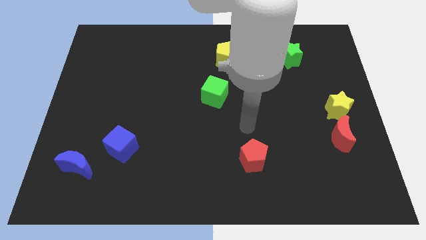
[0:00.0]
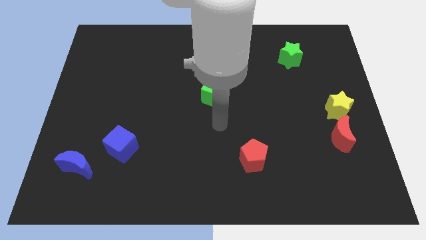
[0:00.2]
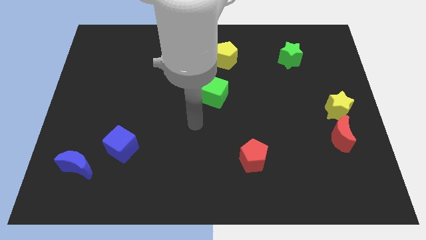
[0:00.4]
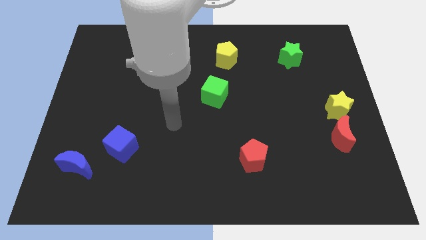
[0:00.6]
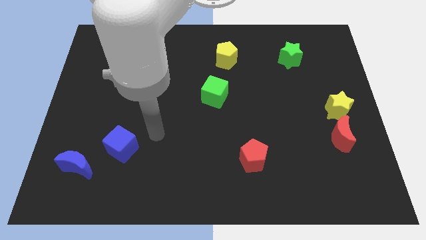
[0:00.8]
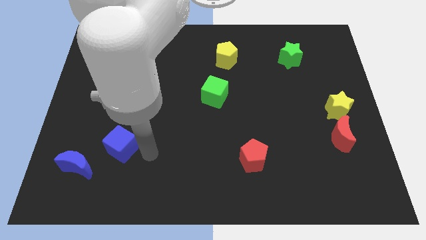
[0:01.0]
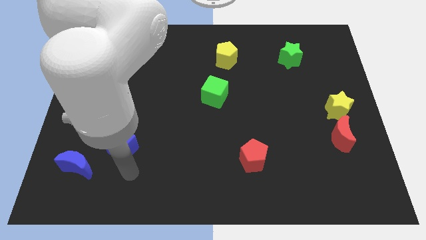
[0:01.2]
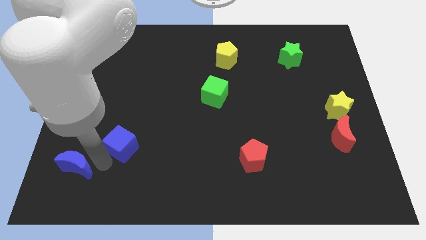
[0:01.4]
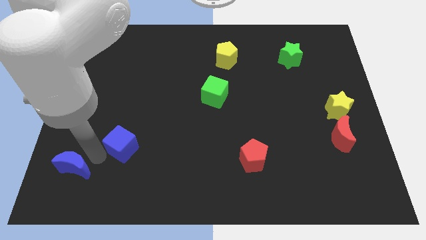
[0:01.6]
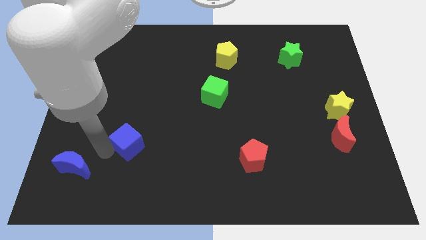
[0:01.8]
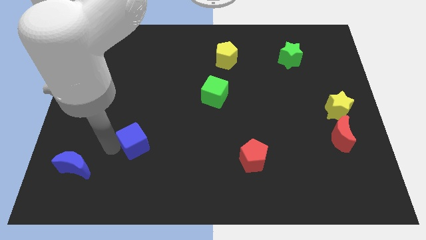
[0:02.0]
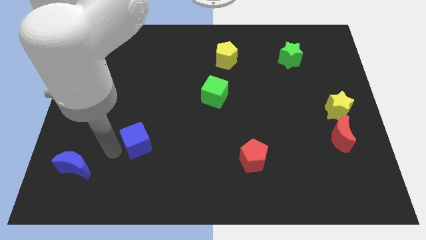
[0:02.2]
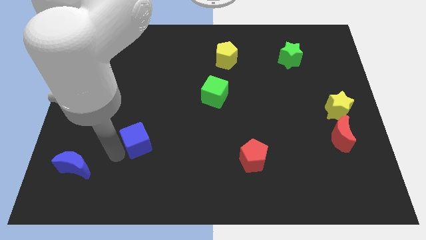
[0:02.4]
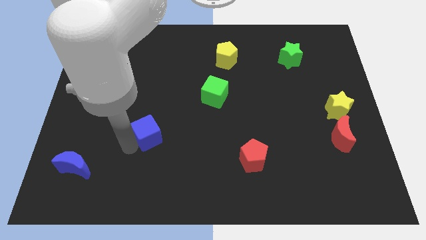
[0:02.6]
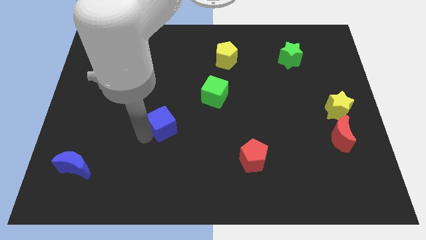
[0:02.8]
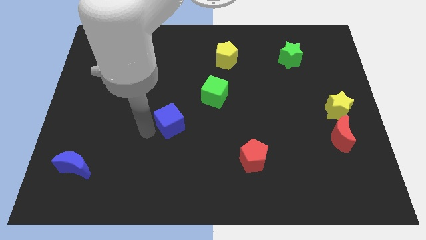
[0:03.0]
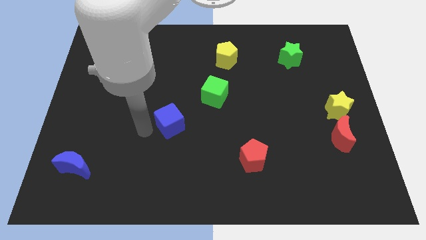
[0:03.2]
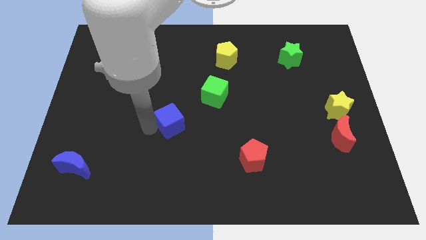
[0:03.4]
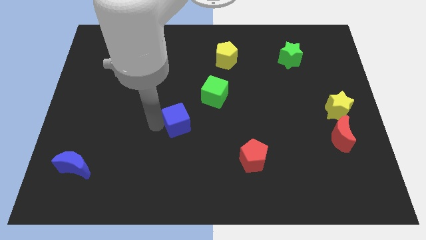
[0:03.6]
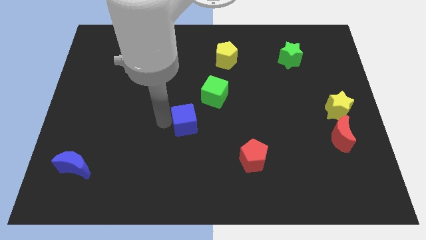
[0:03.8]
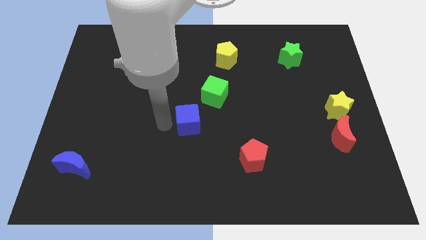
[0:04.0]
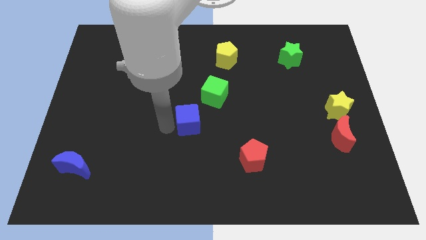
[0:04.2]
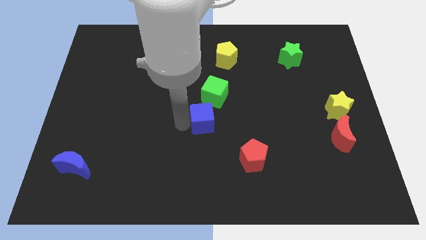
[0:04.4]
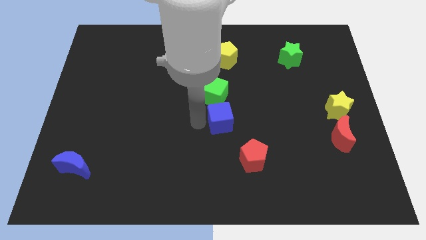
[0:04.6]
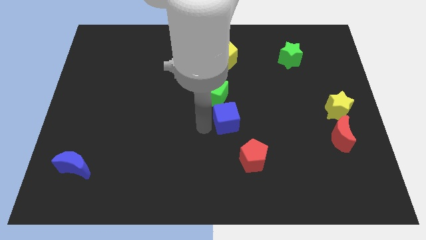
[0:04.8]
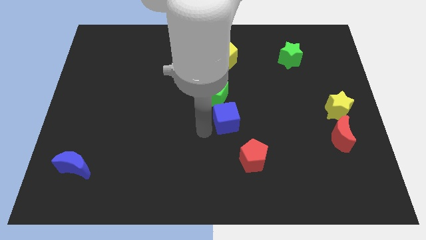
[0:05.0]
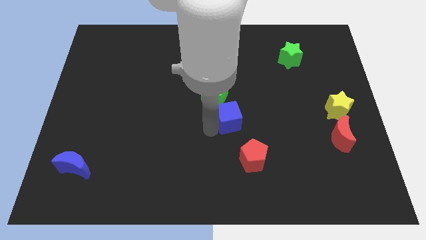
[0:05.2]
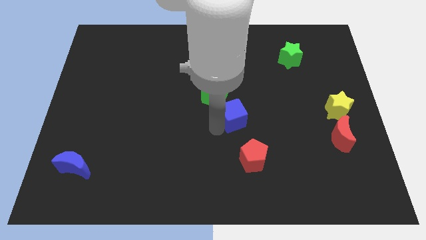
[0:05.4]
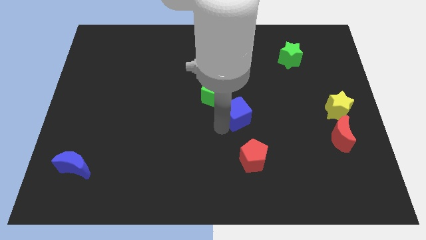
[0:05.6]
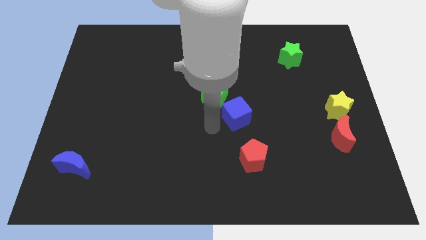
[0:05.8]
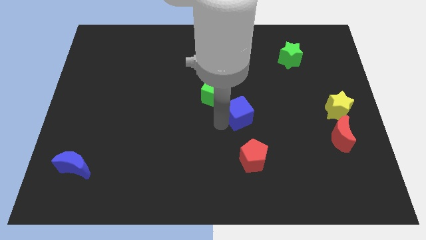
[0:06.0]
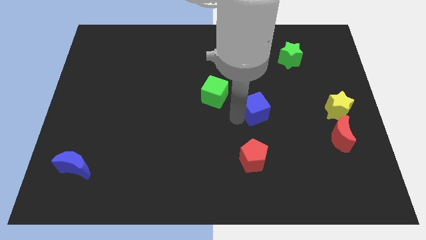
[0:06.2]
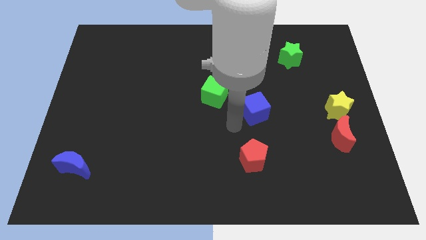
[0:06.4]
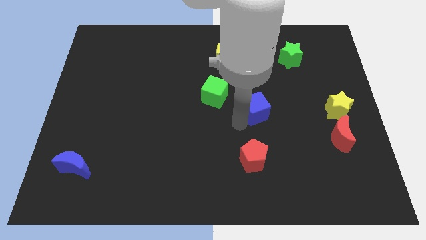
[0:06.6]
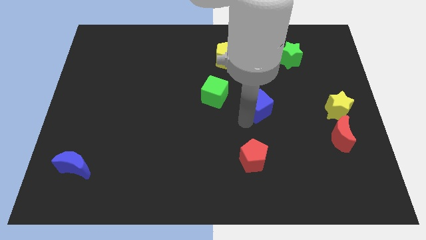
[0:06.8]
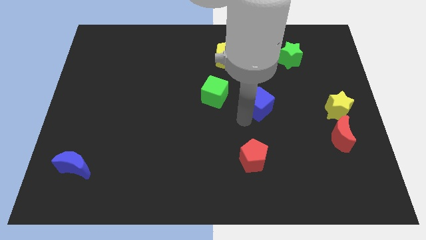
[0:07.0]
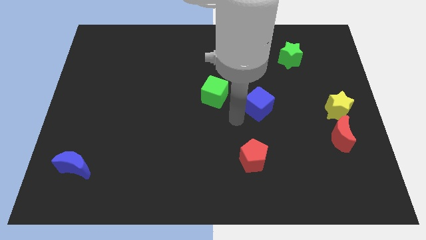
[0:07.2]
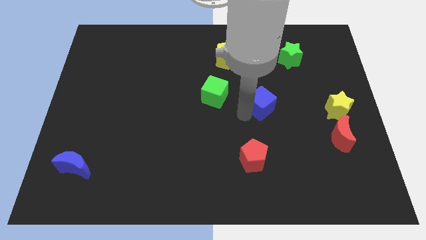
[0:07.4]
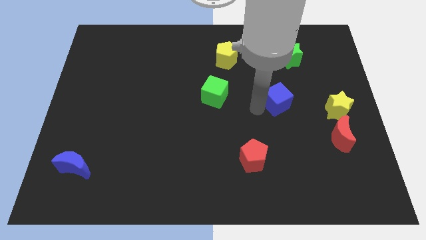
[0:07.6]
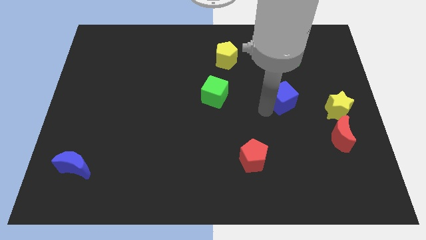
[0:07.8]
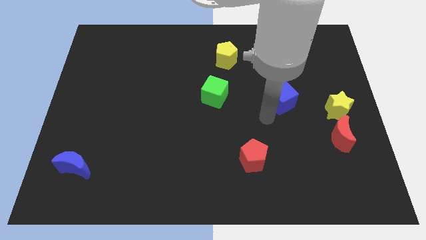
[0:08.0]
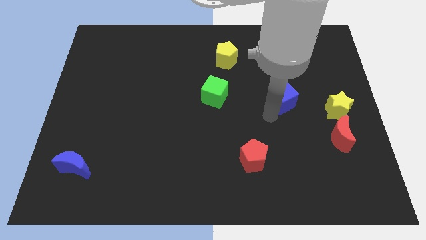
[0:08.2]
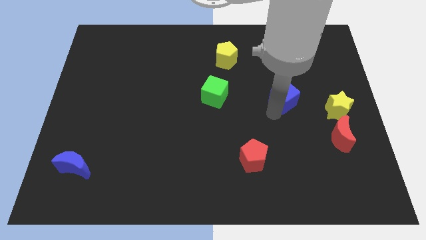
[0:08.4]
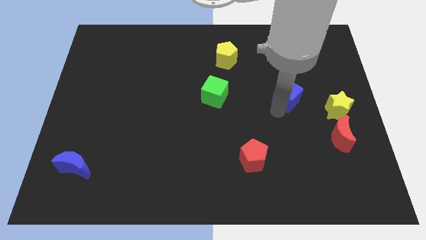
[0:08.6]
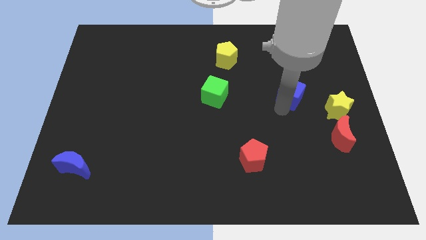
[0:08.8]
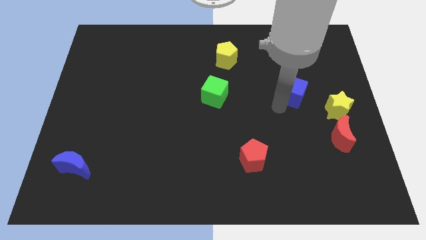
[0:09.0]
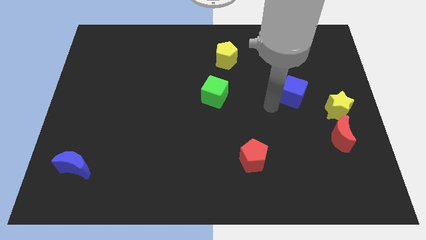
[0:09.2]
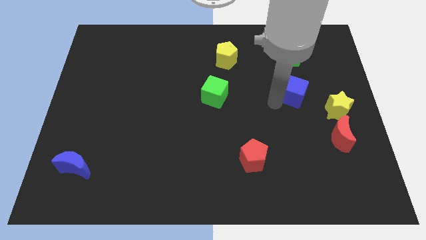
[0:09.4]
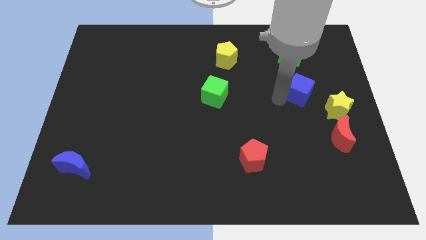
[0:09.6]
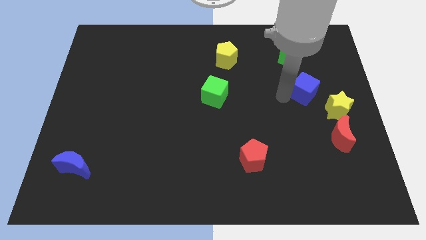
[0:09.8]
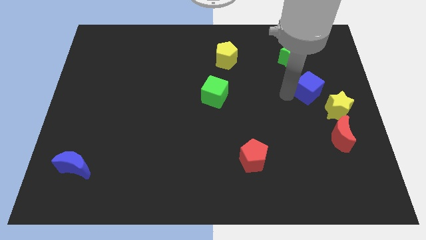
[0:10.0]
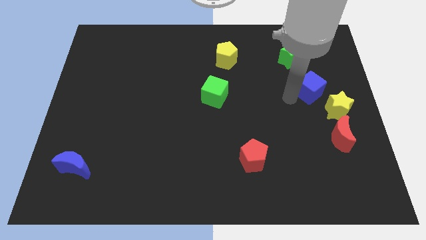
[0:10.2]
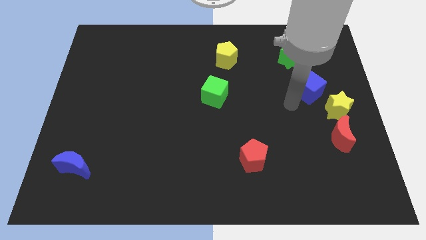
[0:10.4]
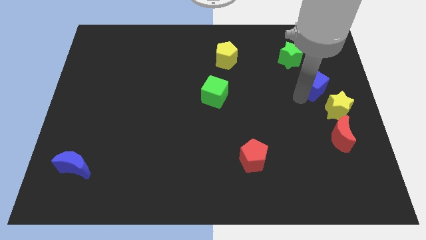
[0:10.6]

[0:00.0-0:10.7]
slide the blue cube above the yellow star
